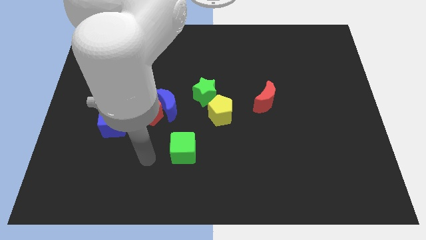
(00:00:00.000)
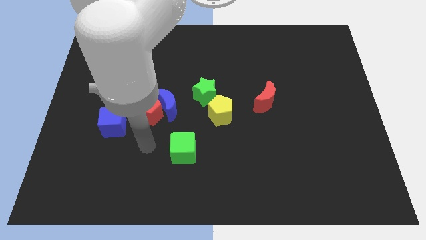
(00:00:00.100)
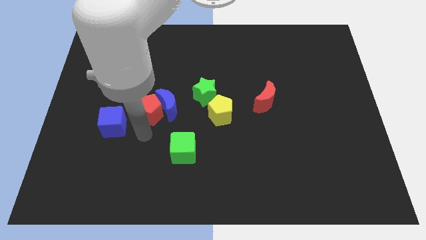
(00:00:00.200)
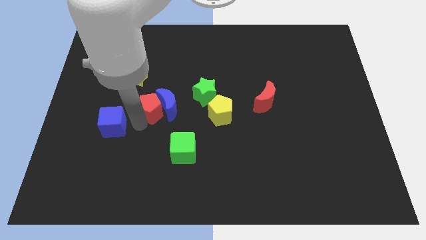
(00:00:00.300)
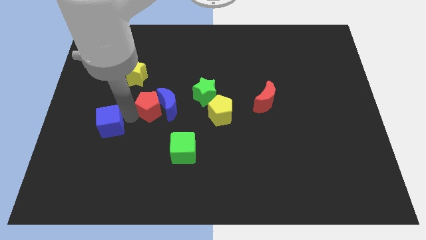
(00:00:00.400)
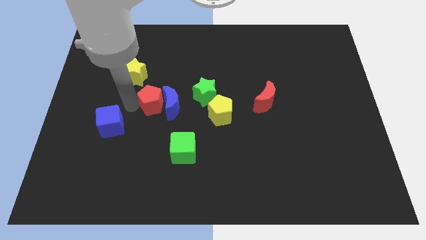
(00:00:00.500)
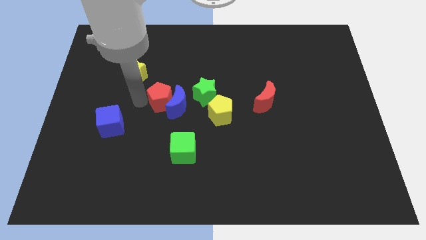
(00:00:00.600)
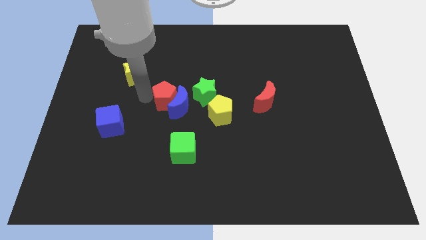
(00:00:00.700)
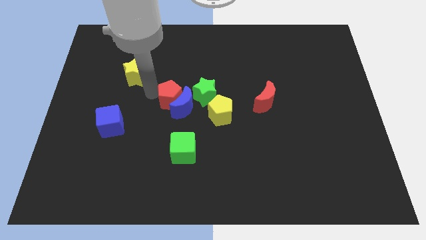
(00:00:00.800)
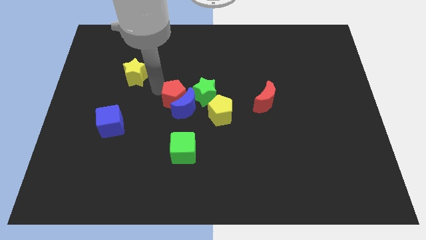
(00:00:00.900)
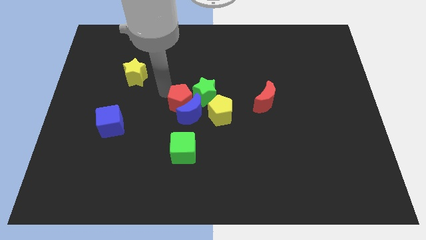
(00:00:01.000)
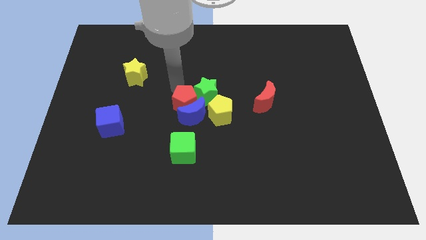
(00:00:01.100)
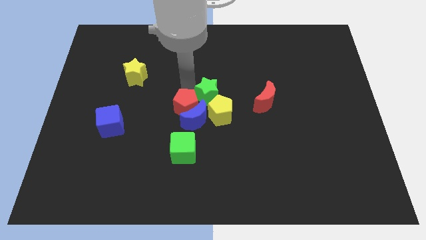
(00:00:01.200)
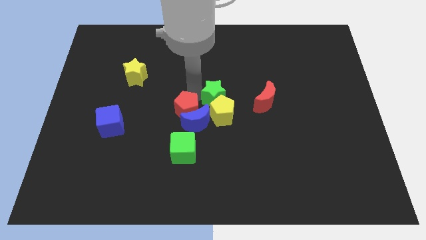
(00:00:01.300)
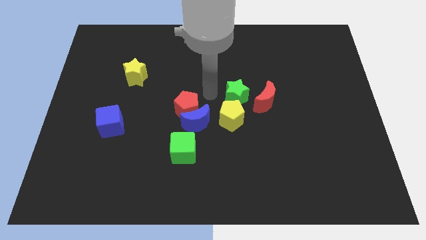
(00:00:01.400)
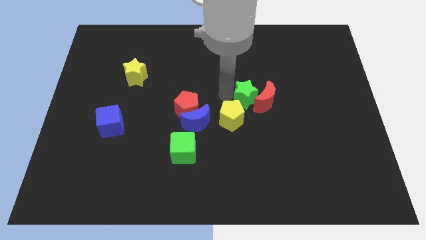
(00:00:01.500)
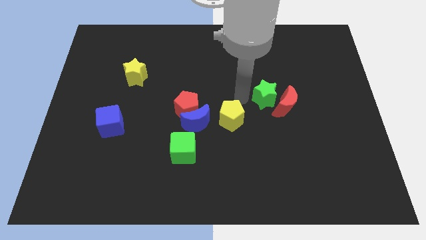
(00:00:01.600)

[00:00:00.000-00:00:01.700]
separate the yellow pentagon from the green star

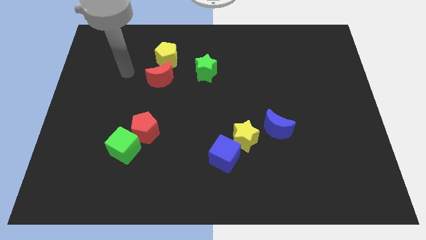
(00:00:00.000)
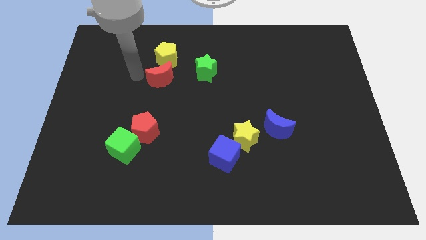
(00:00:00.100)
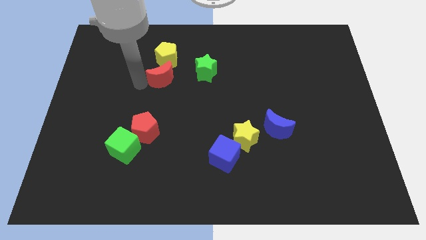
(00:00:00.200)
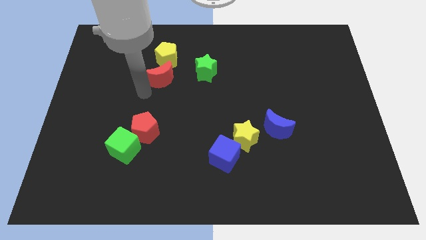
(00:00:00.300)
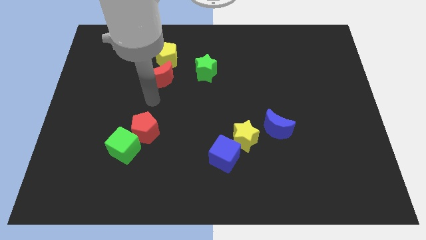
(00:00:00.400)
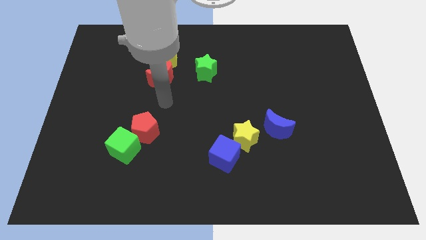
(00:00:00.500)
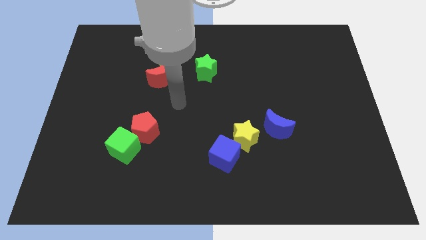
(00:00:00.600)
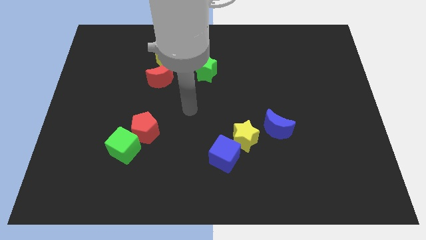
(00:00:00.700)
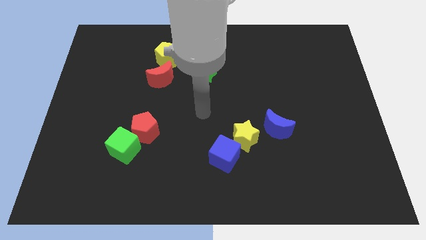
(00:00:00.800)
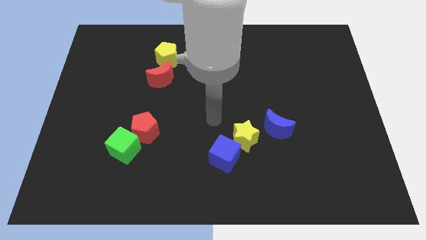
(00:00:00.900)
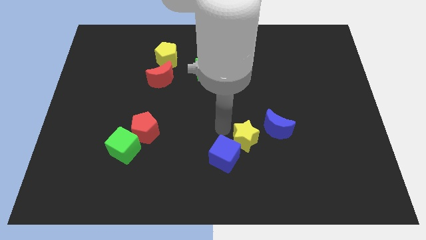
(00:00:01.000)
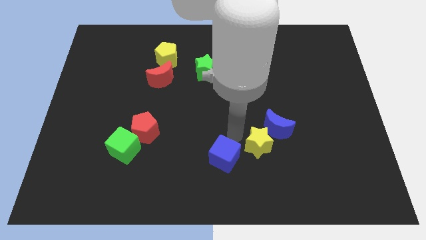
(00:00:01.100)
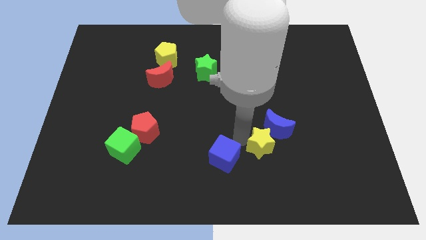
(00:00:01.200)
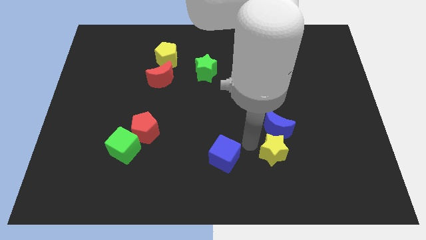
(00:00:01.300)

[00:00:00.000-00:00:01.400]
move the blue cube away from the yellow star

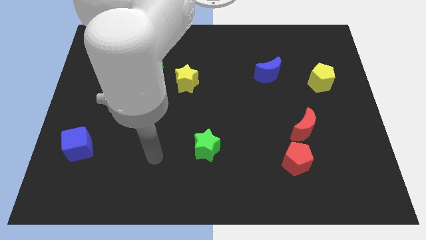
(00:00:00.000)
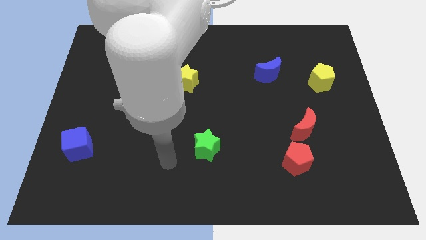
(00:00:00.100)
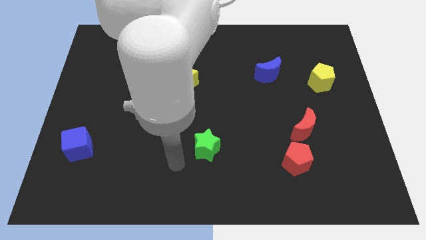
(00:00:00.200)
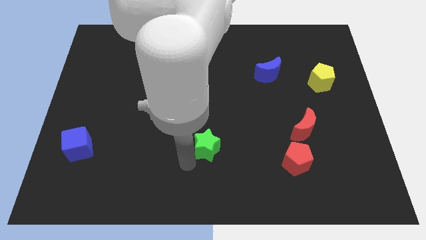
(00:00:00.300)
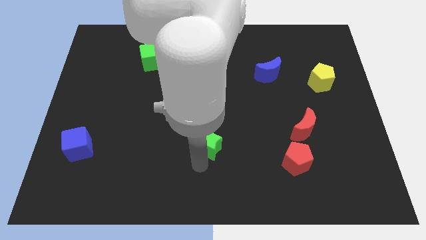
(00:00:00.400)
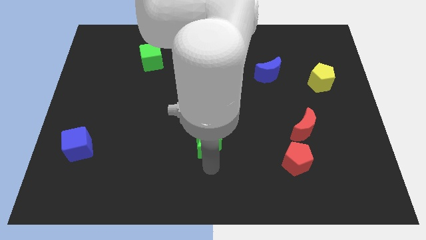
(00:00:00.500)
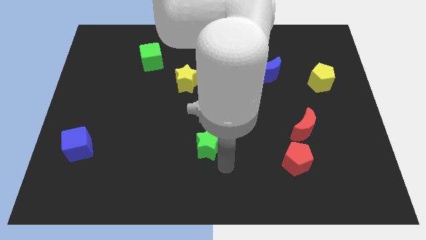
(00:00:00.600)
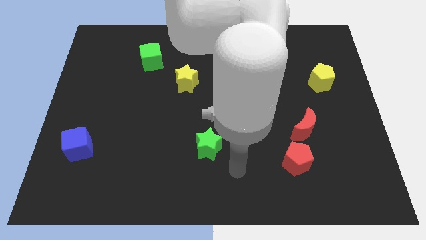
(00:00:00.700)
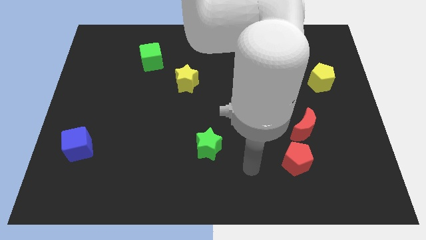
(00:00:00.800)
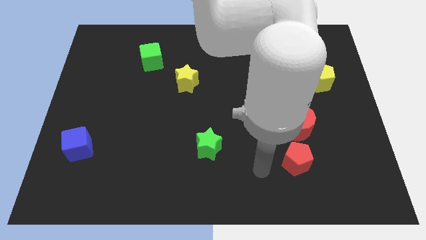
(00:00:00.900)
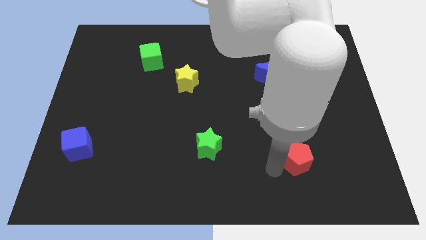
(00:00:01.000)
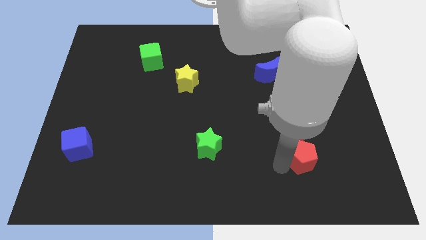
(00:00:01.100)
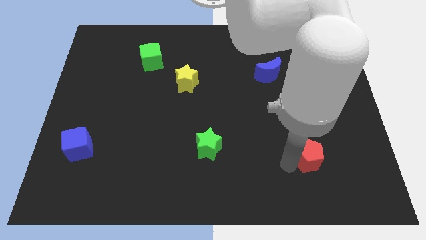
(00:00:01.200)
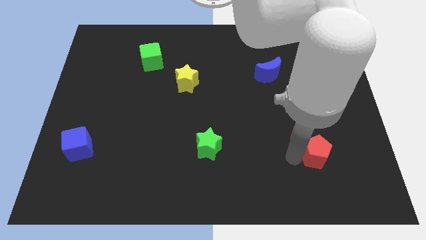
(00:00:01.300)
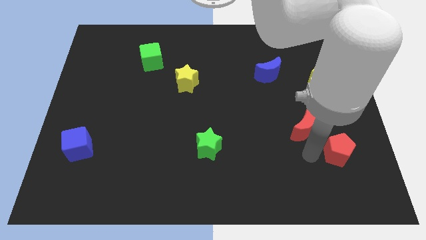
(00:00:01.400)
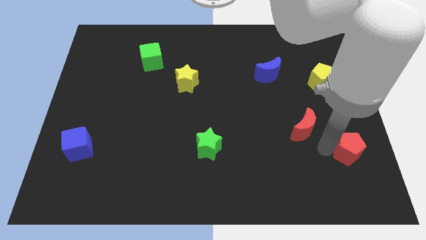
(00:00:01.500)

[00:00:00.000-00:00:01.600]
separate the red moon from the red pentagon

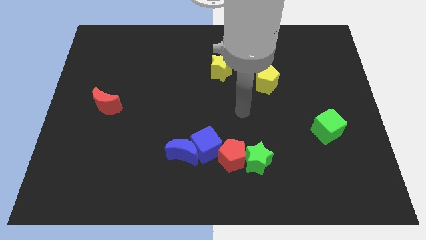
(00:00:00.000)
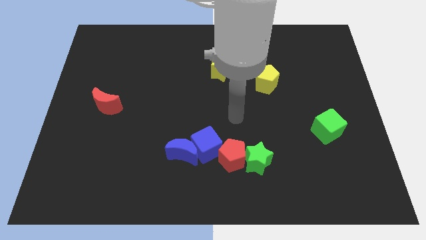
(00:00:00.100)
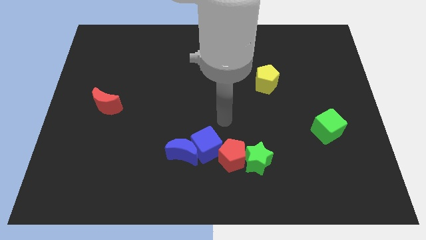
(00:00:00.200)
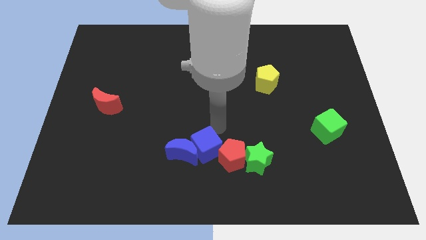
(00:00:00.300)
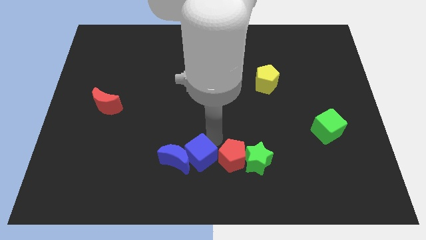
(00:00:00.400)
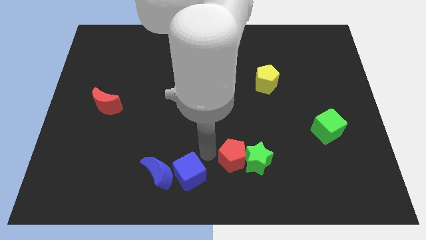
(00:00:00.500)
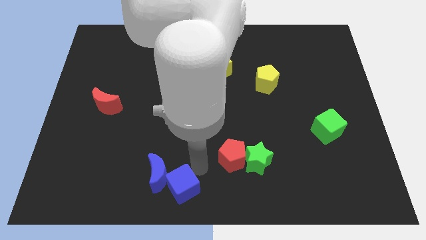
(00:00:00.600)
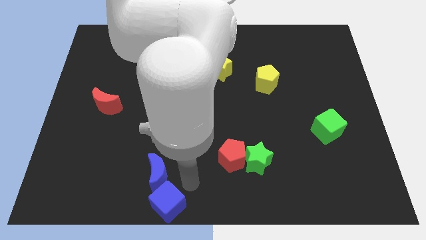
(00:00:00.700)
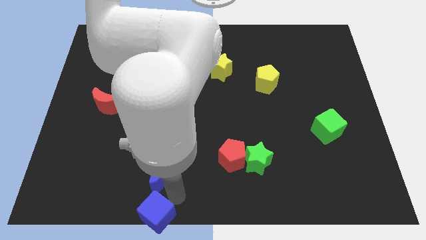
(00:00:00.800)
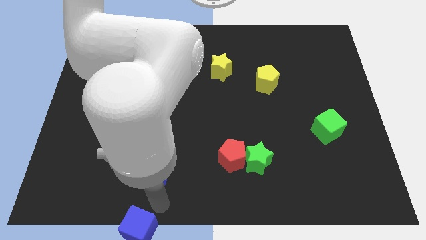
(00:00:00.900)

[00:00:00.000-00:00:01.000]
move the blue moon away from the blue cube

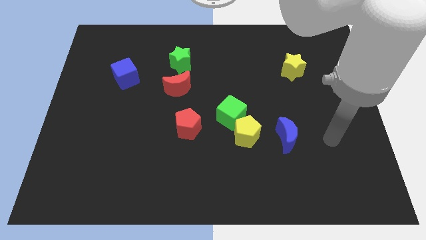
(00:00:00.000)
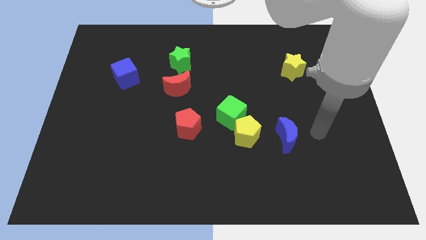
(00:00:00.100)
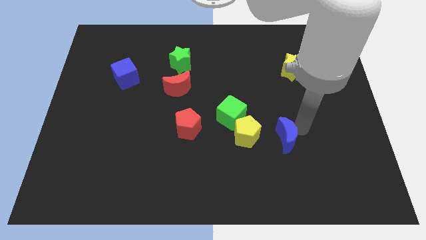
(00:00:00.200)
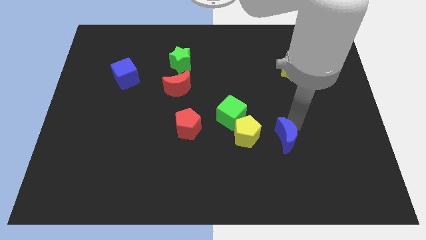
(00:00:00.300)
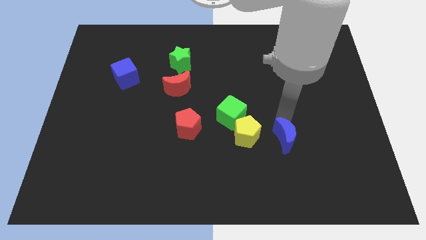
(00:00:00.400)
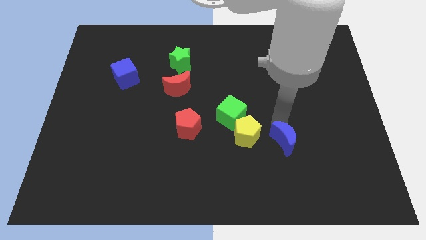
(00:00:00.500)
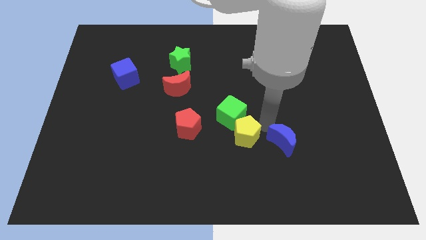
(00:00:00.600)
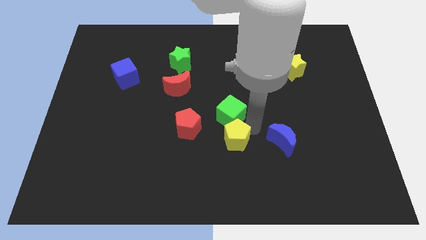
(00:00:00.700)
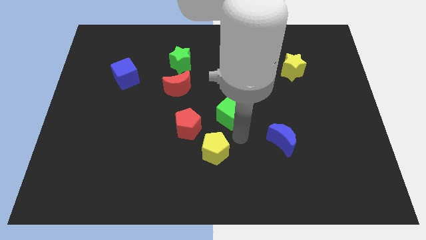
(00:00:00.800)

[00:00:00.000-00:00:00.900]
separate the green cube from the yellow pentagon

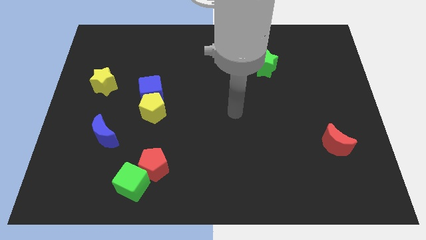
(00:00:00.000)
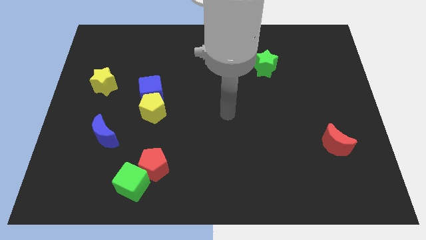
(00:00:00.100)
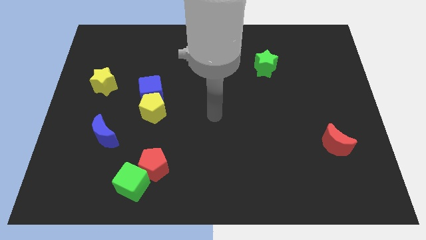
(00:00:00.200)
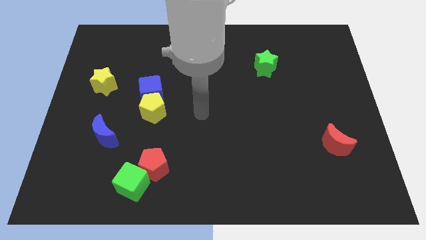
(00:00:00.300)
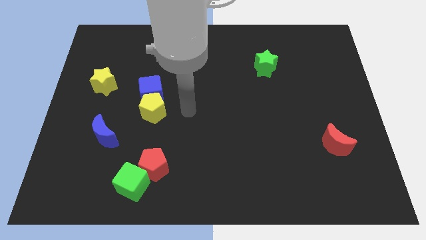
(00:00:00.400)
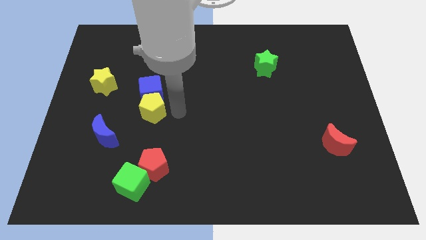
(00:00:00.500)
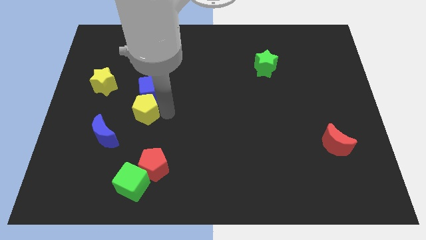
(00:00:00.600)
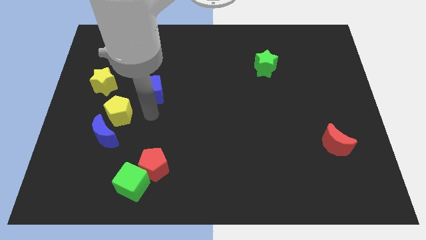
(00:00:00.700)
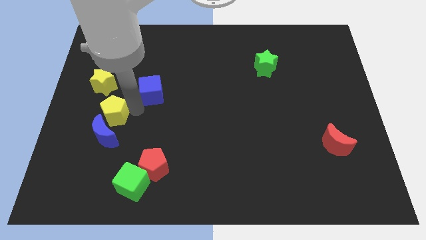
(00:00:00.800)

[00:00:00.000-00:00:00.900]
pull the blue cube apart from the yellow pentagon

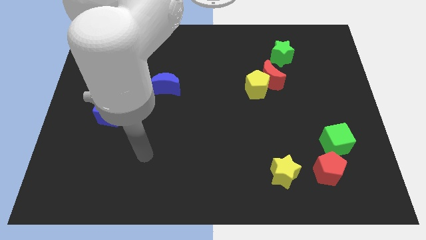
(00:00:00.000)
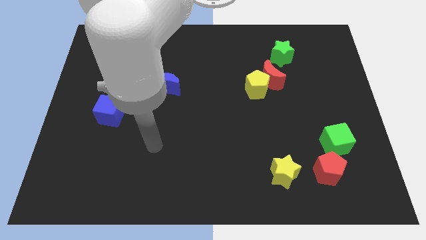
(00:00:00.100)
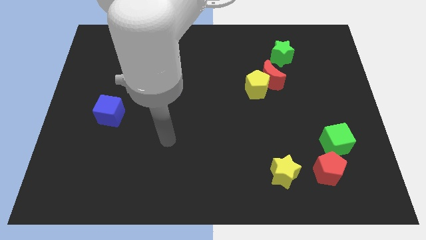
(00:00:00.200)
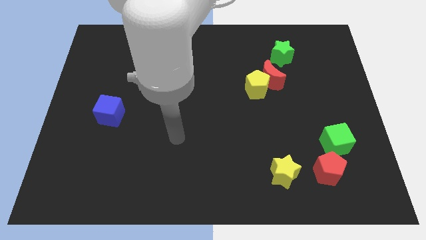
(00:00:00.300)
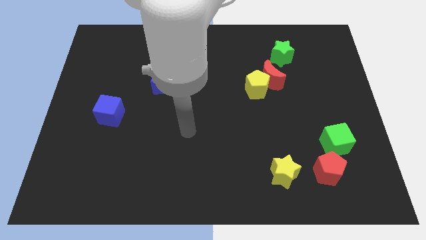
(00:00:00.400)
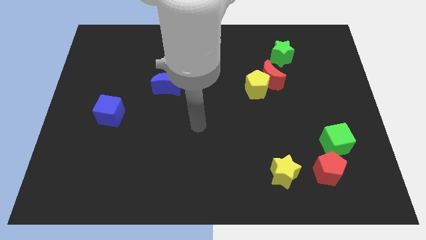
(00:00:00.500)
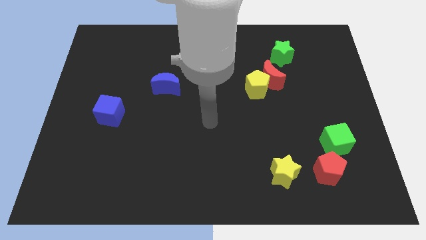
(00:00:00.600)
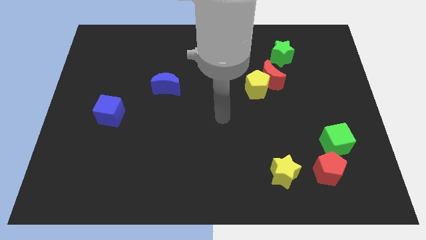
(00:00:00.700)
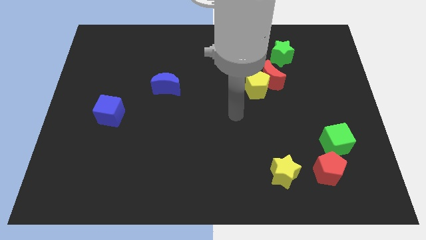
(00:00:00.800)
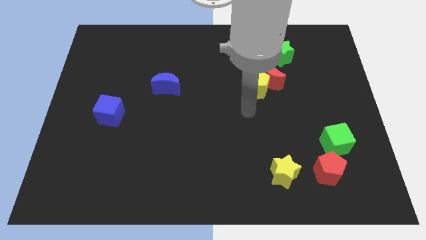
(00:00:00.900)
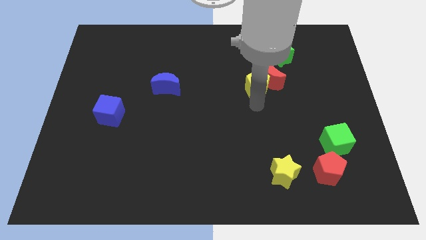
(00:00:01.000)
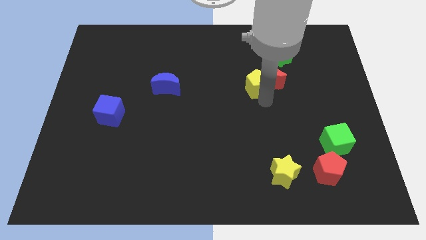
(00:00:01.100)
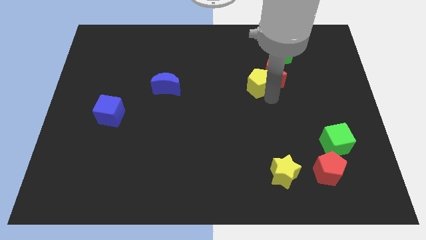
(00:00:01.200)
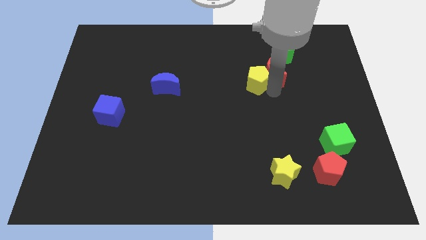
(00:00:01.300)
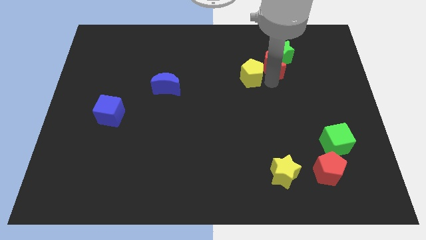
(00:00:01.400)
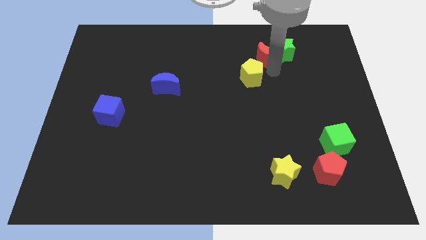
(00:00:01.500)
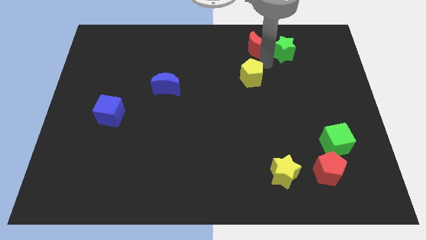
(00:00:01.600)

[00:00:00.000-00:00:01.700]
separate the yellow pentagon from the red moon
